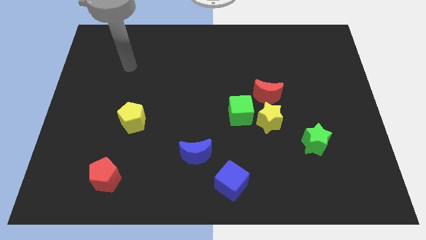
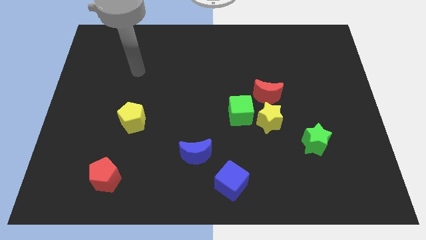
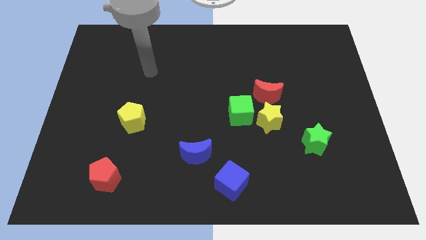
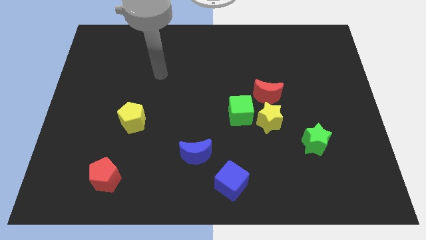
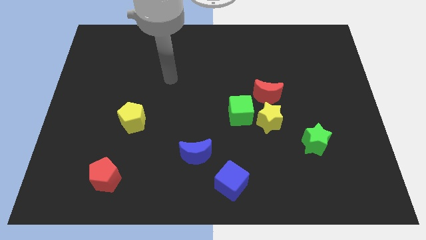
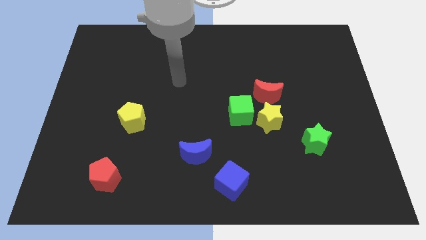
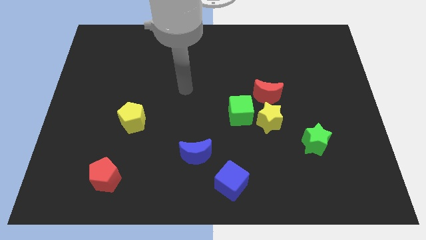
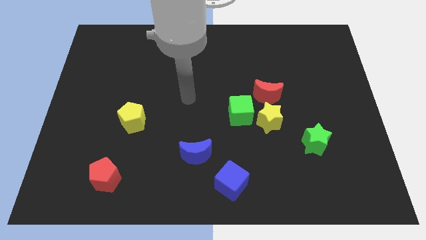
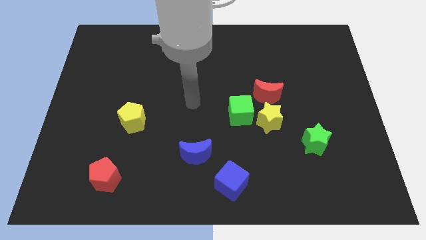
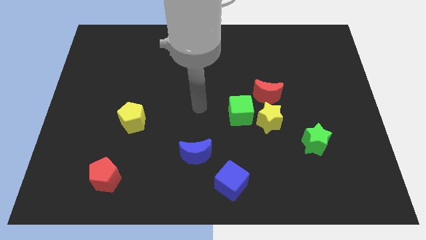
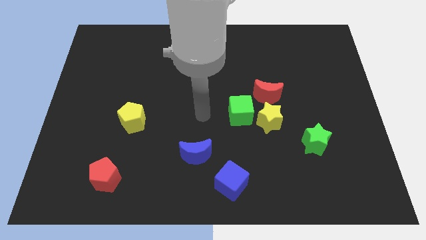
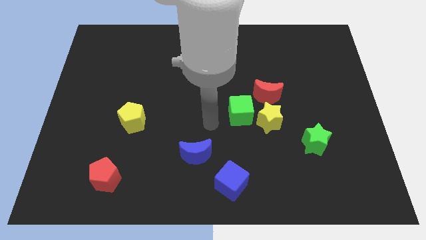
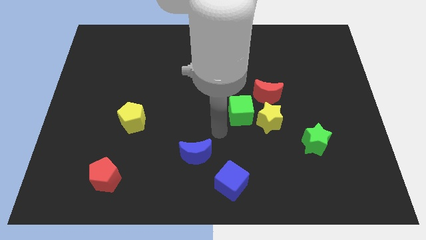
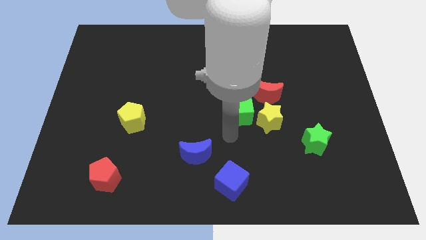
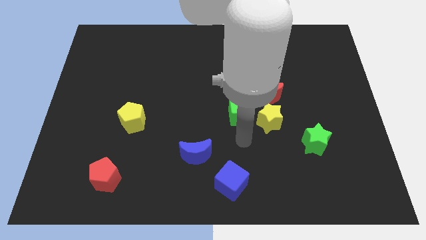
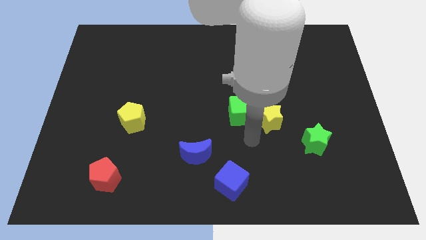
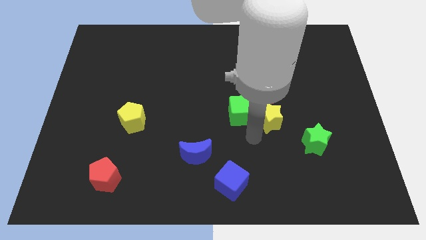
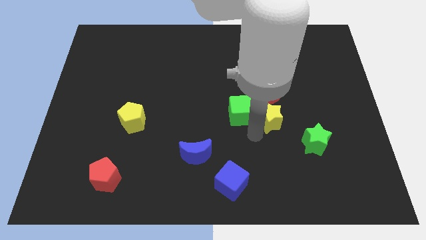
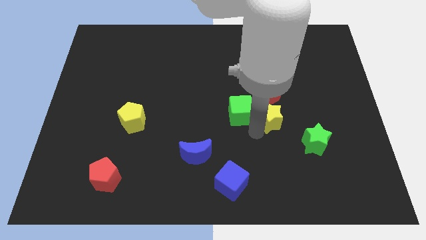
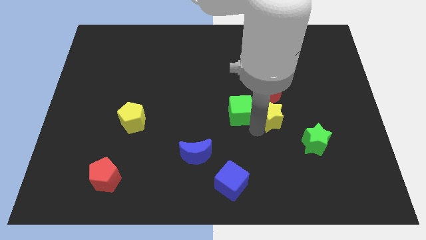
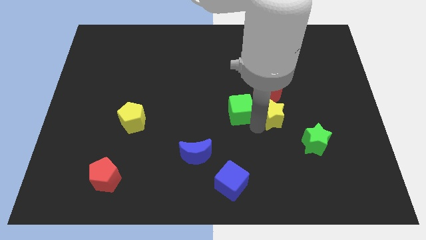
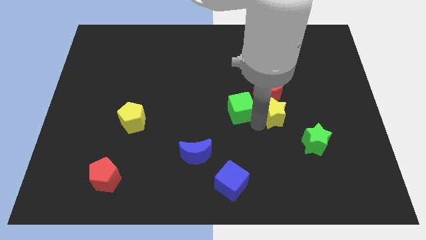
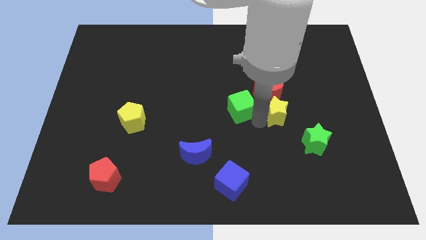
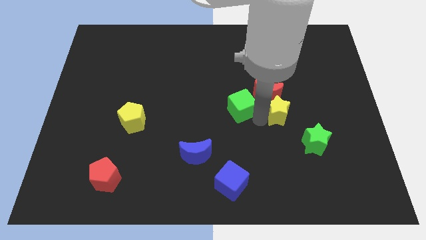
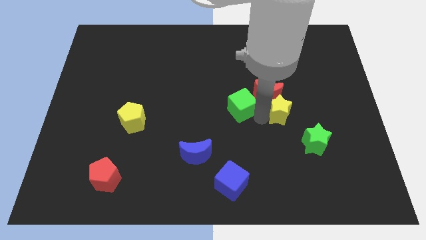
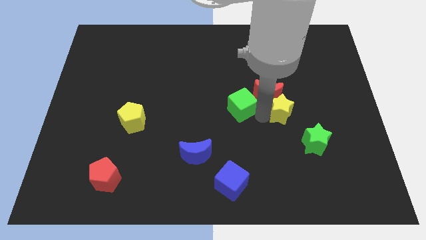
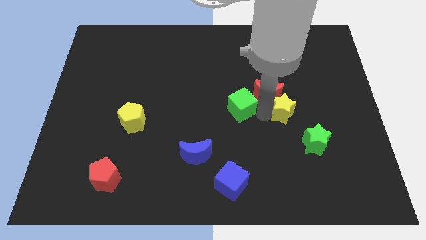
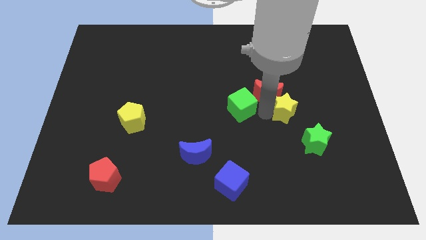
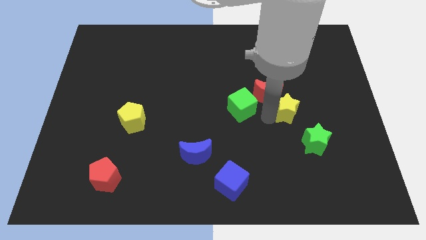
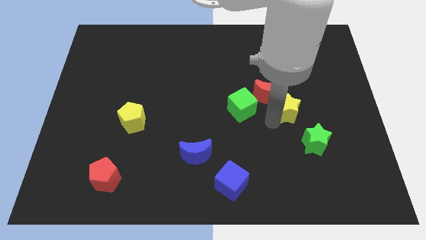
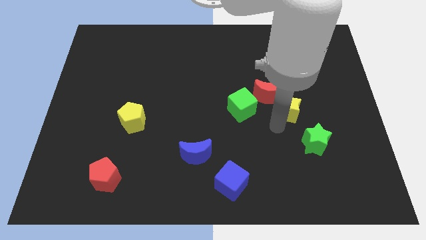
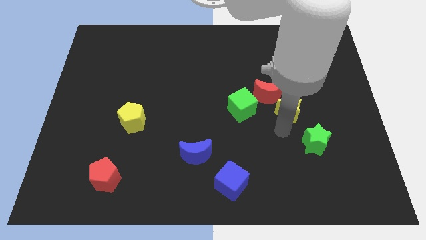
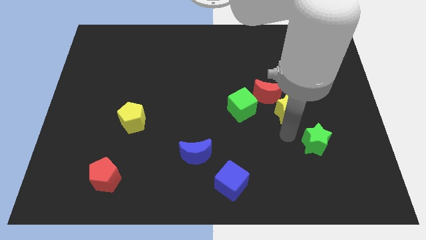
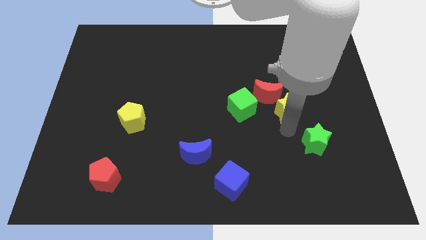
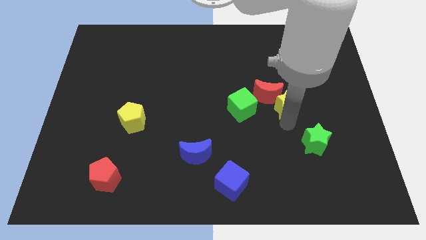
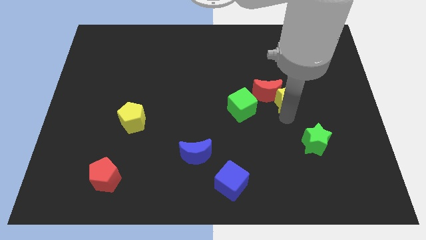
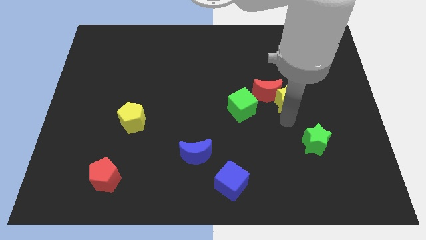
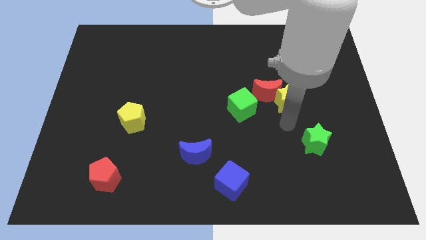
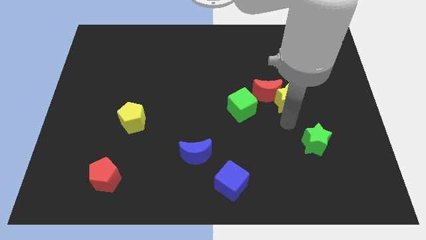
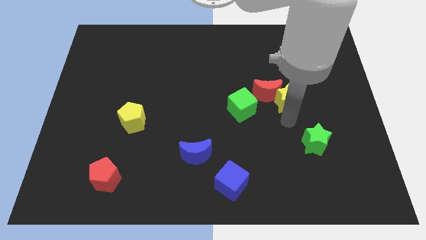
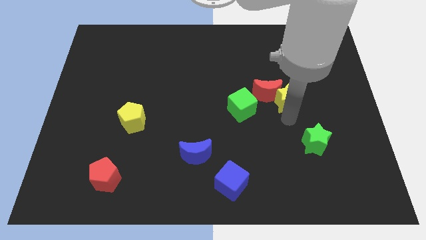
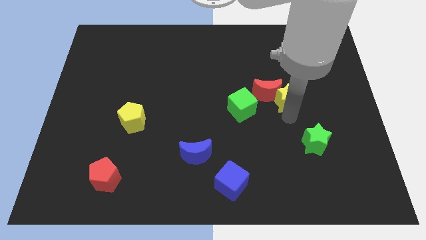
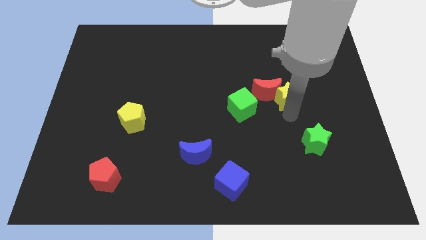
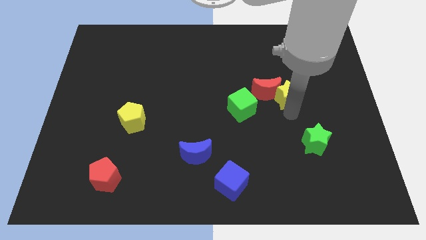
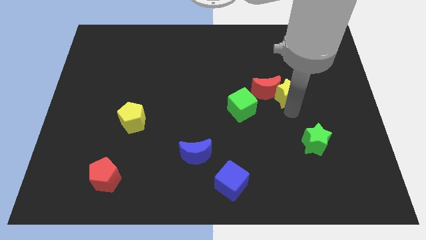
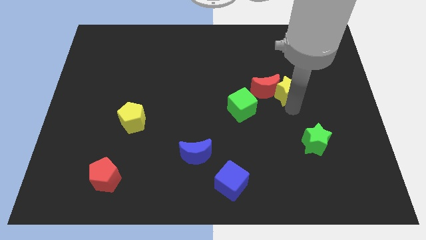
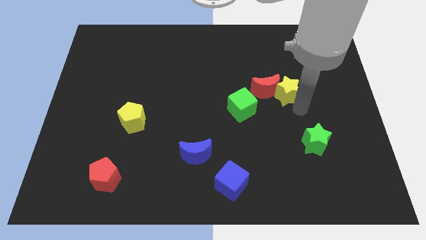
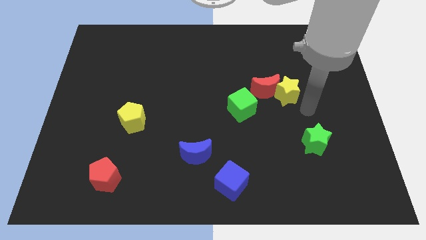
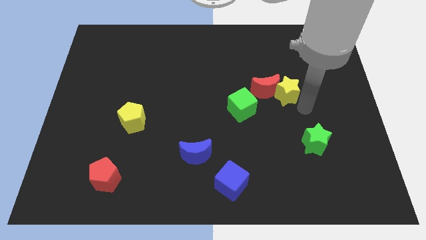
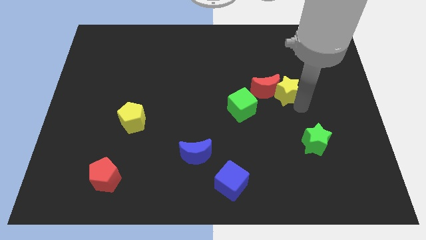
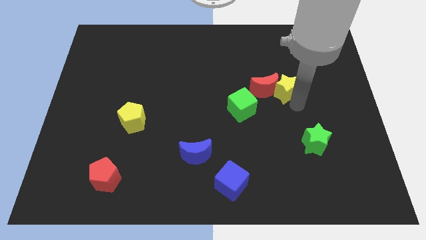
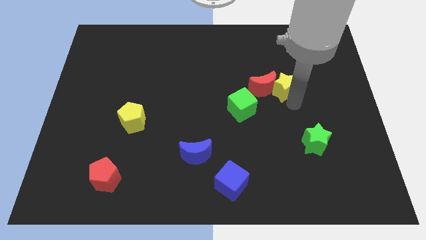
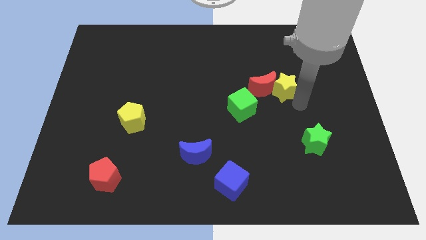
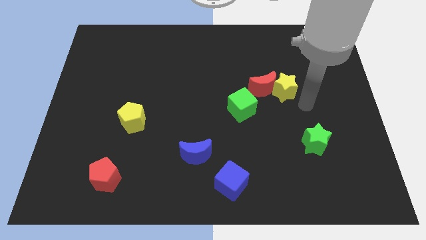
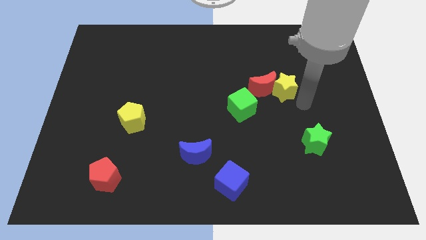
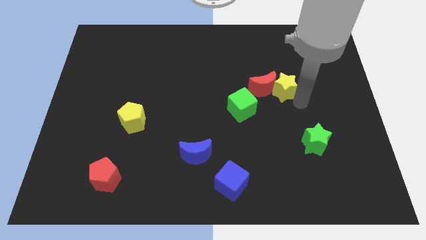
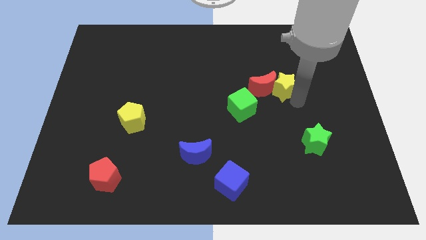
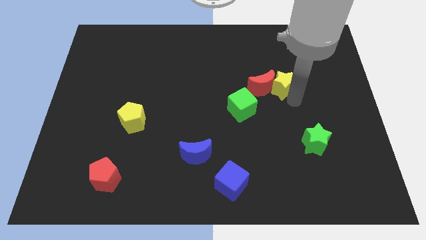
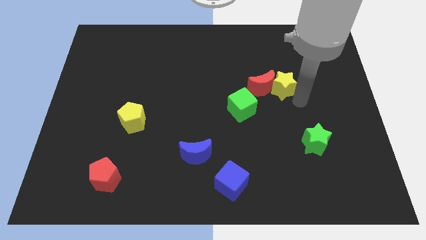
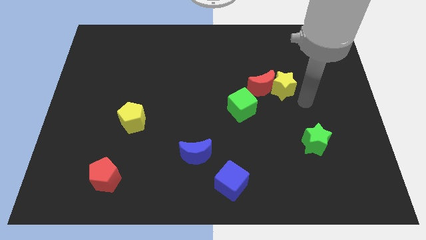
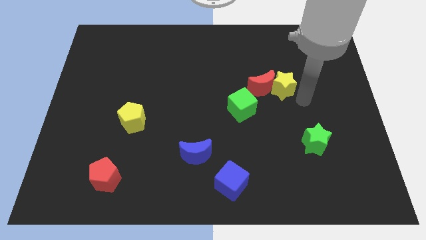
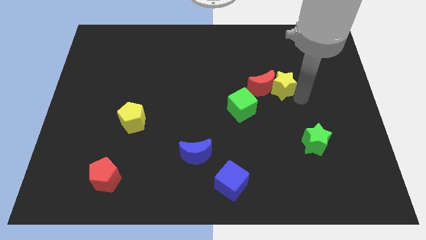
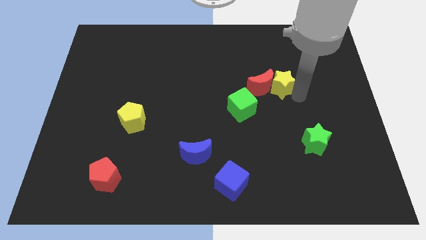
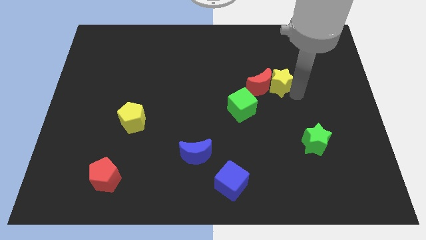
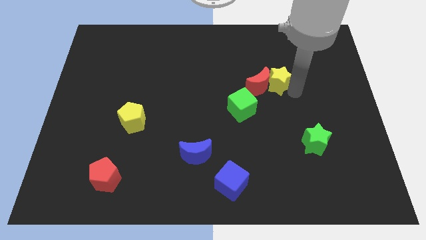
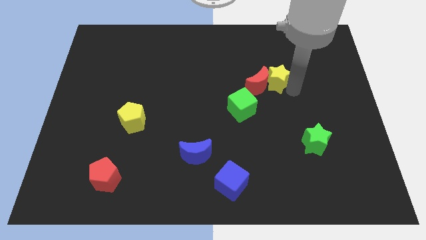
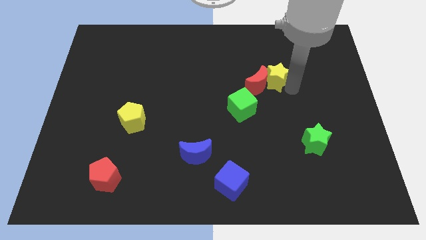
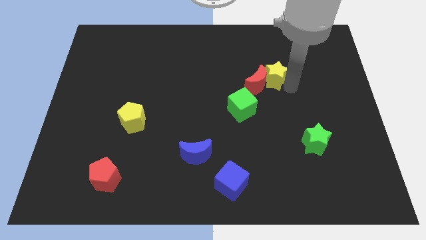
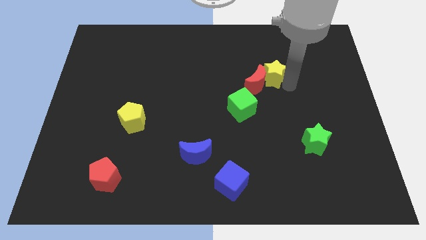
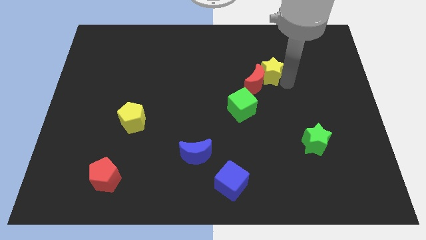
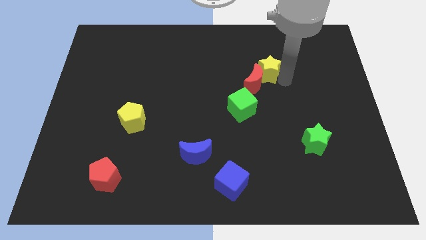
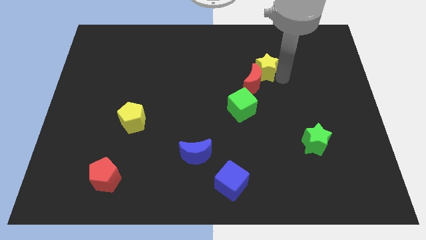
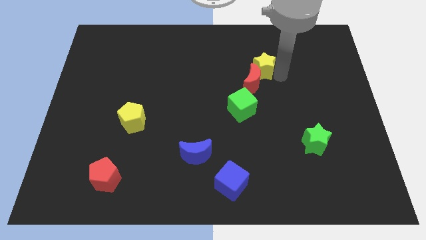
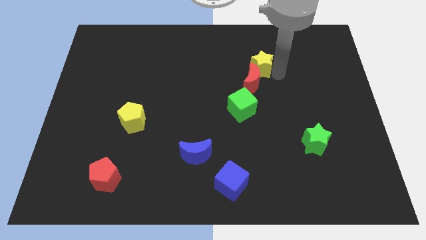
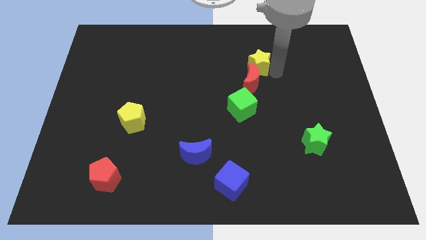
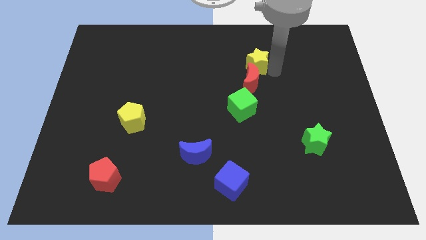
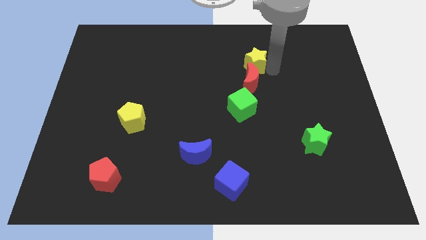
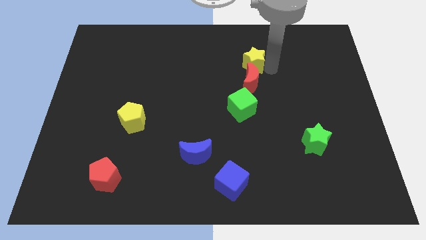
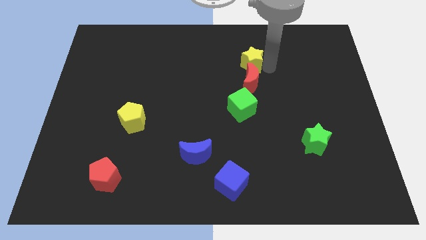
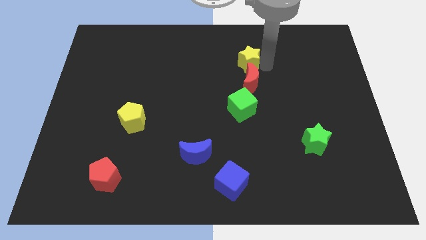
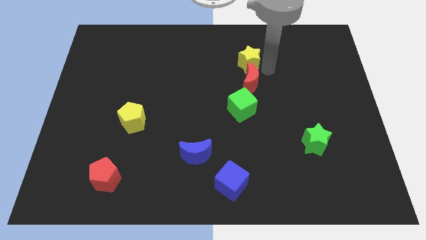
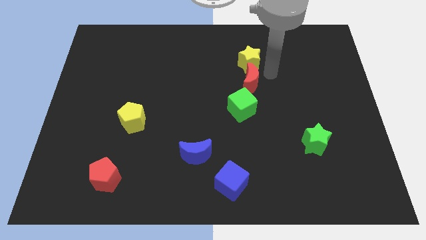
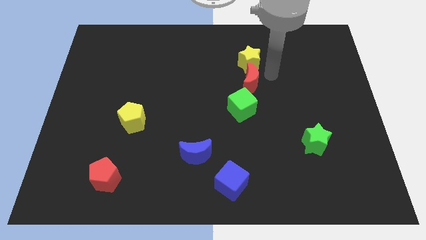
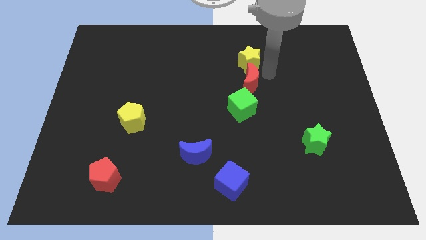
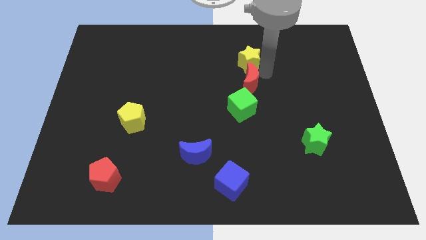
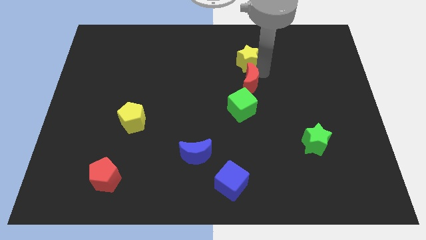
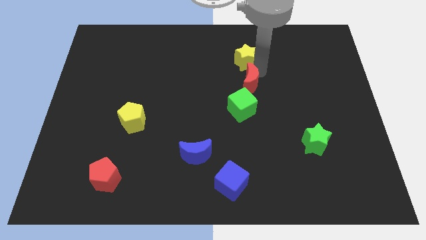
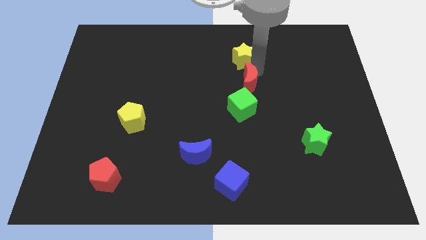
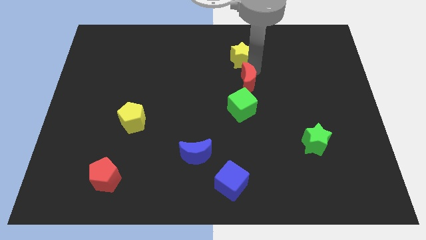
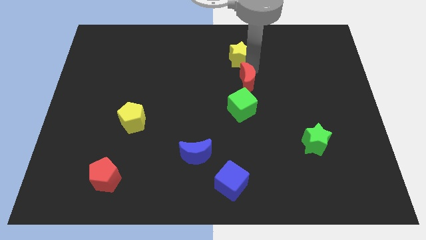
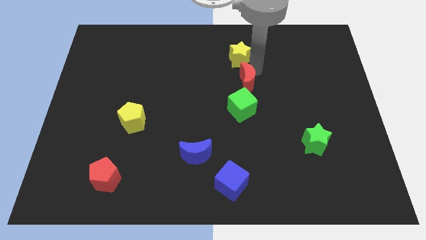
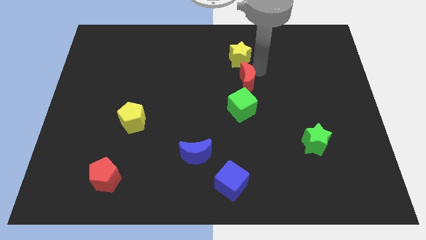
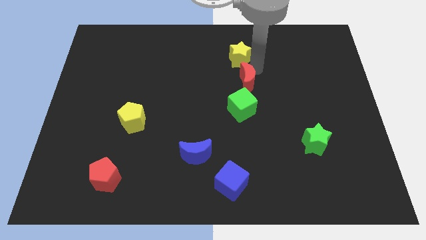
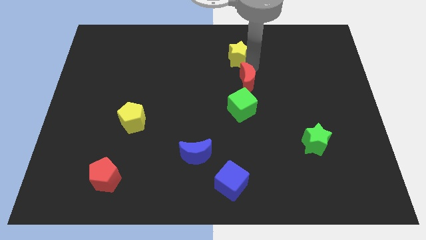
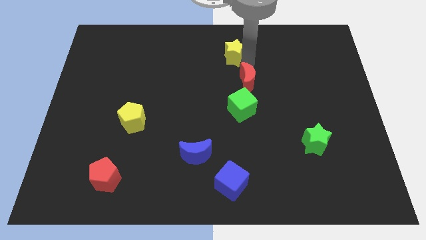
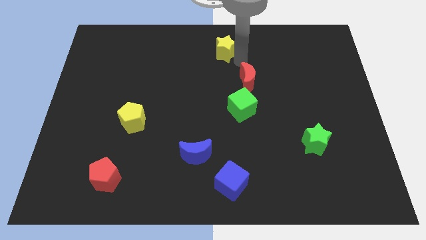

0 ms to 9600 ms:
move the yellow star to the towards your base
